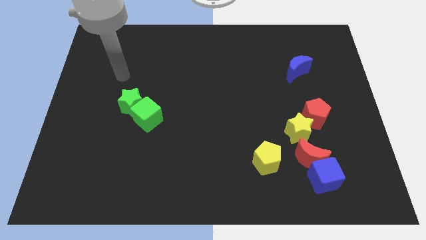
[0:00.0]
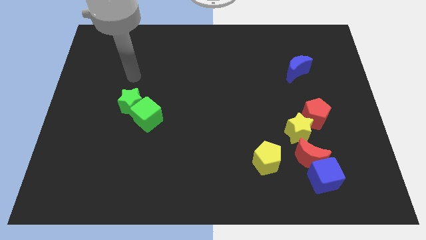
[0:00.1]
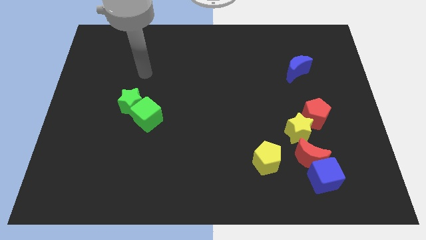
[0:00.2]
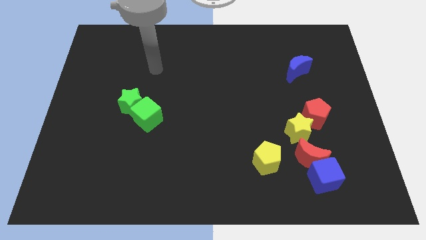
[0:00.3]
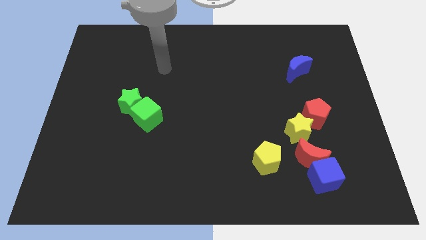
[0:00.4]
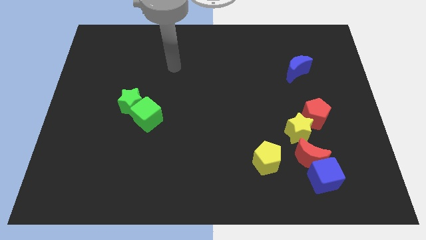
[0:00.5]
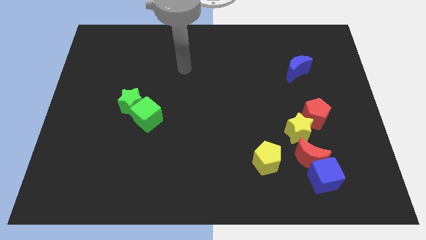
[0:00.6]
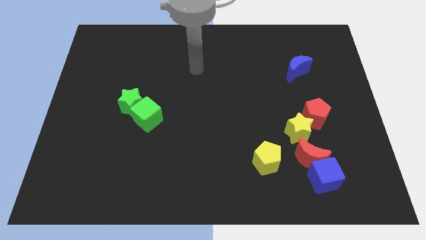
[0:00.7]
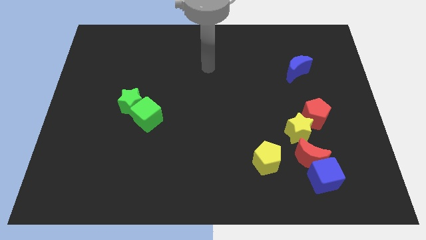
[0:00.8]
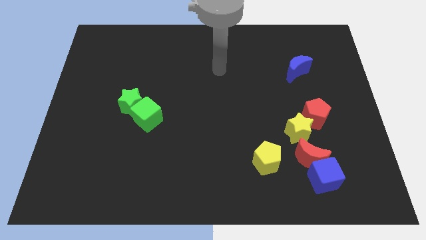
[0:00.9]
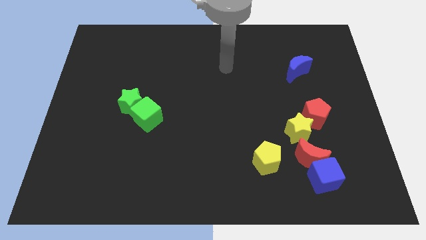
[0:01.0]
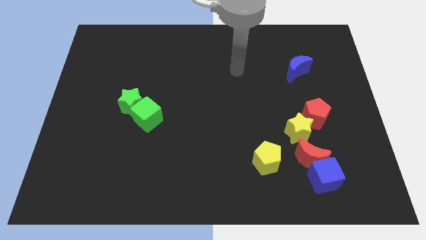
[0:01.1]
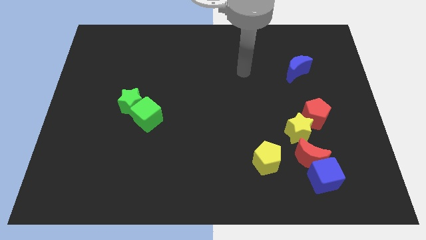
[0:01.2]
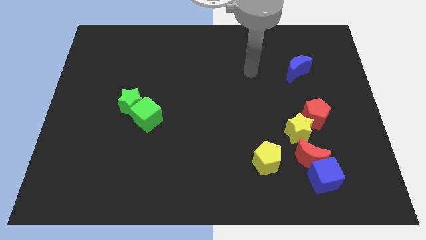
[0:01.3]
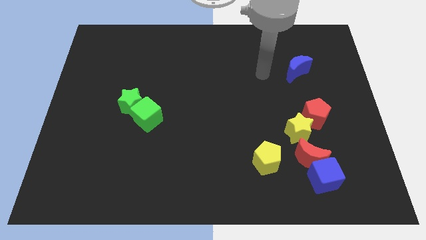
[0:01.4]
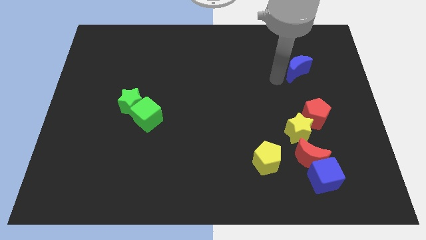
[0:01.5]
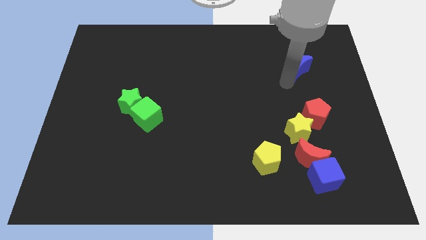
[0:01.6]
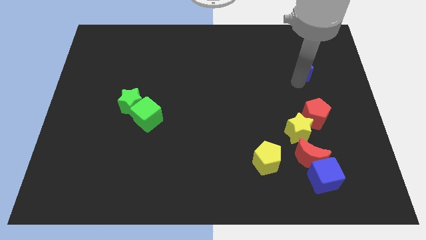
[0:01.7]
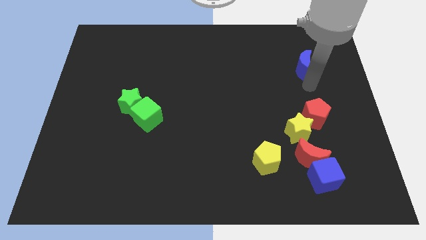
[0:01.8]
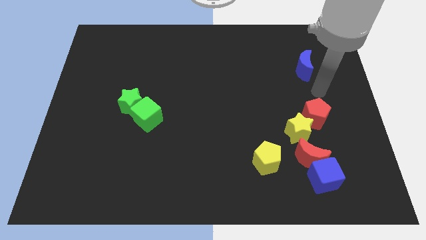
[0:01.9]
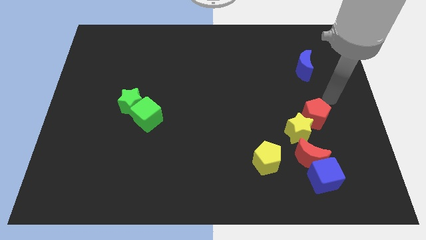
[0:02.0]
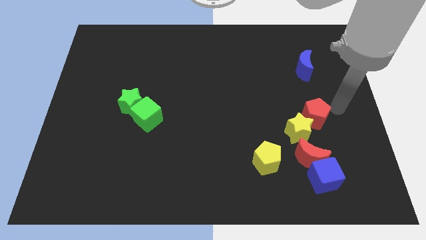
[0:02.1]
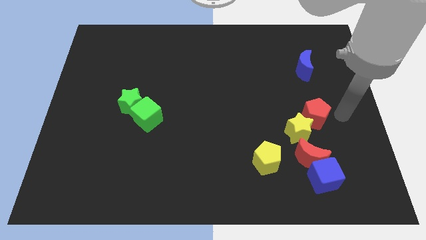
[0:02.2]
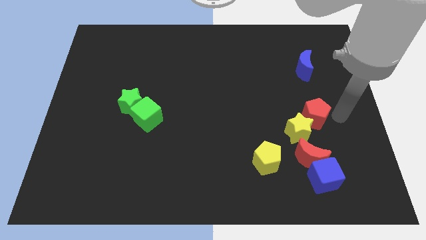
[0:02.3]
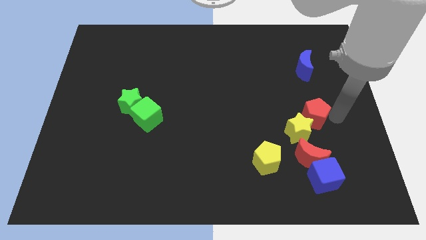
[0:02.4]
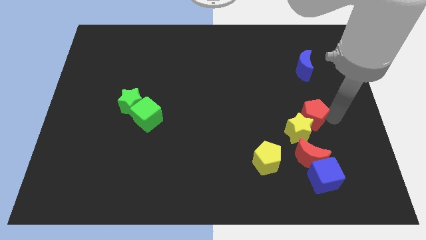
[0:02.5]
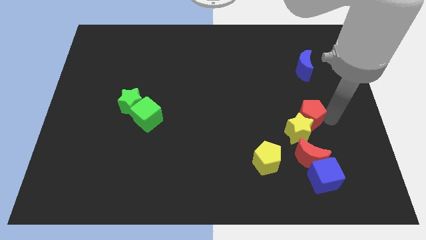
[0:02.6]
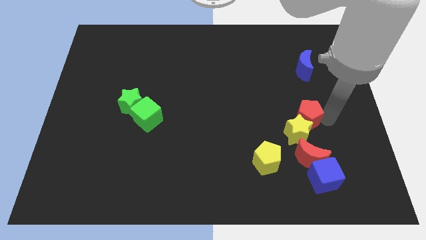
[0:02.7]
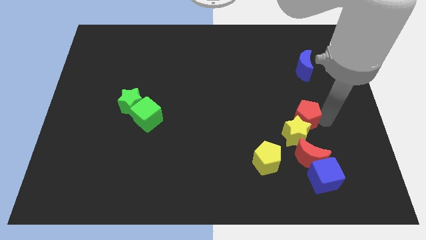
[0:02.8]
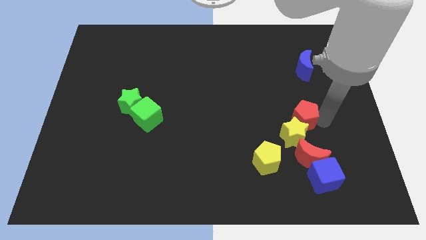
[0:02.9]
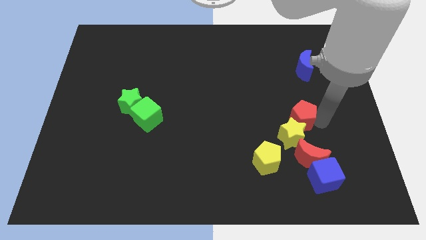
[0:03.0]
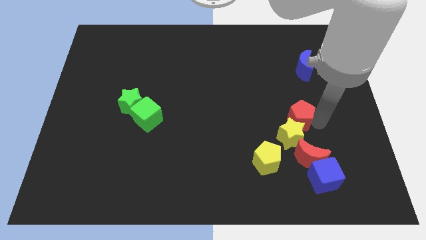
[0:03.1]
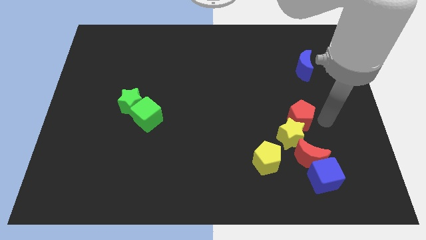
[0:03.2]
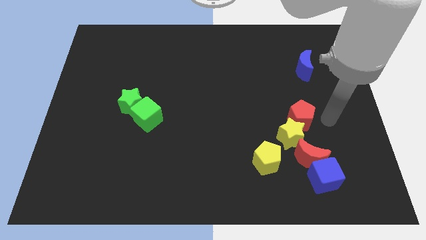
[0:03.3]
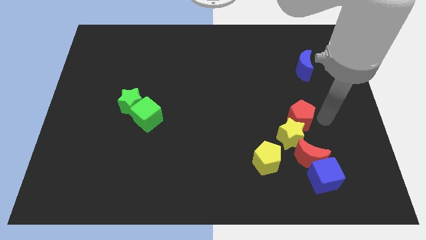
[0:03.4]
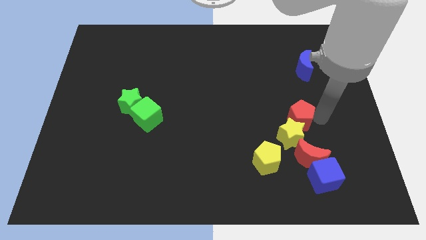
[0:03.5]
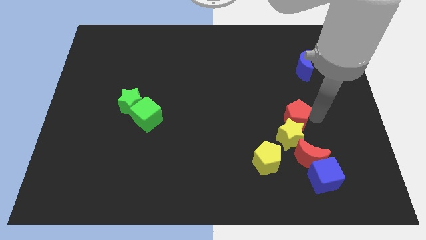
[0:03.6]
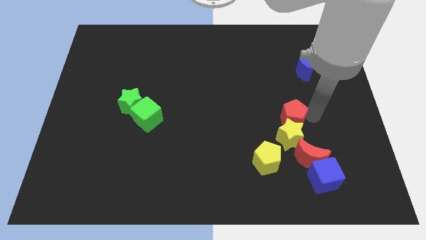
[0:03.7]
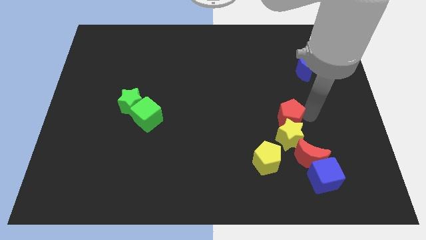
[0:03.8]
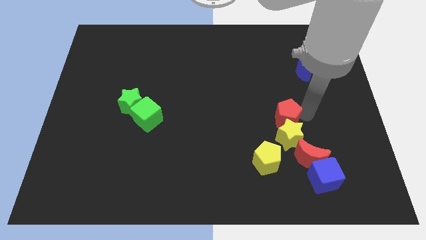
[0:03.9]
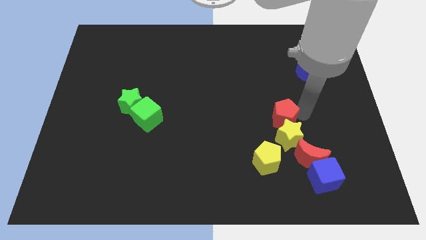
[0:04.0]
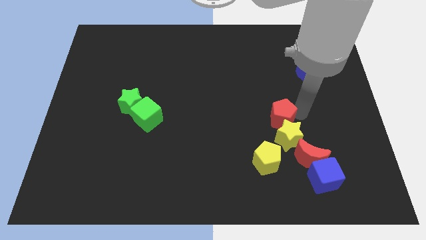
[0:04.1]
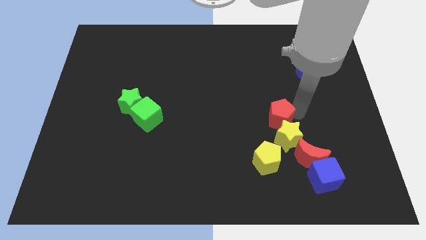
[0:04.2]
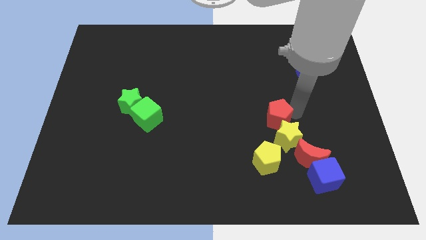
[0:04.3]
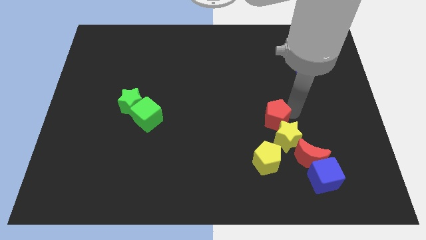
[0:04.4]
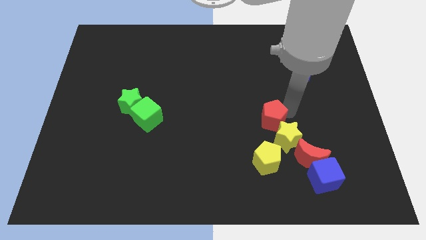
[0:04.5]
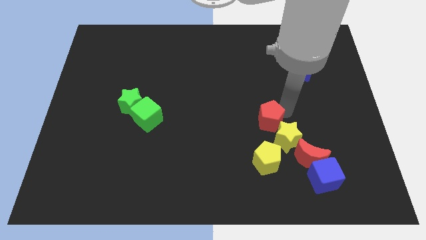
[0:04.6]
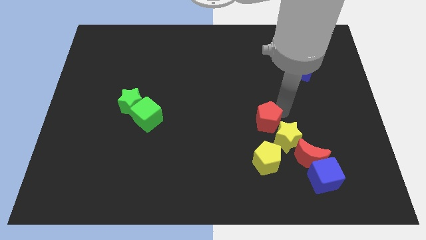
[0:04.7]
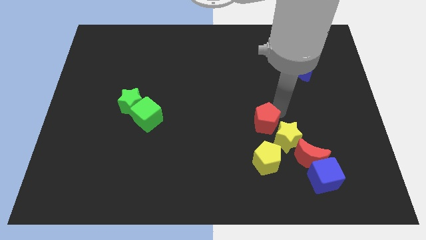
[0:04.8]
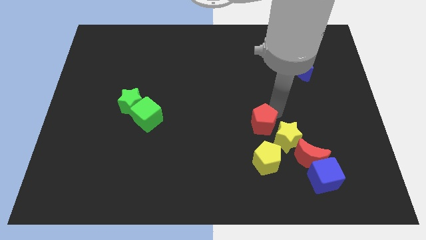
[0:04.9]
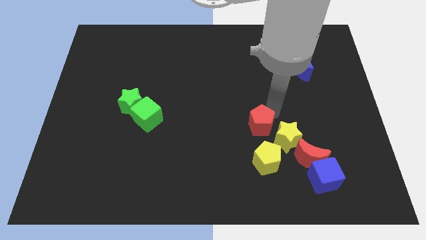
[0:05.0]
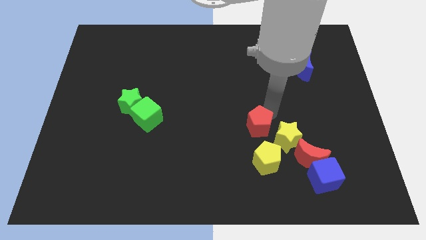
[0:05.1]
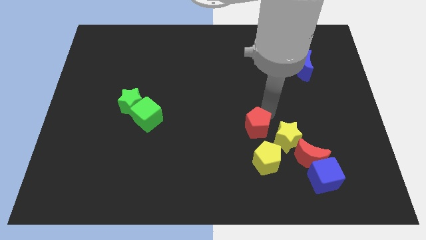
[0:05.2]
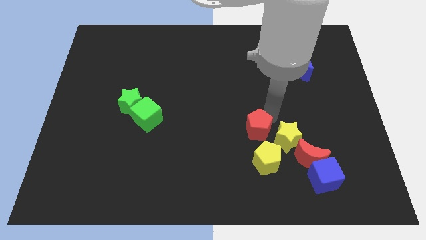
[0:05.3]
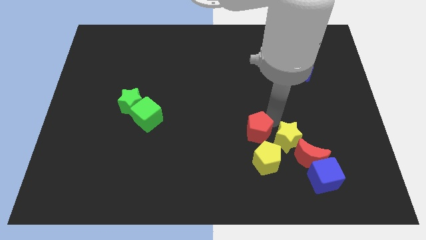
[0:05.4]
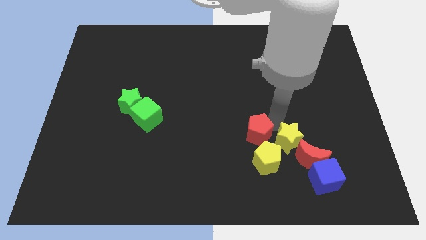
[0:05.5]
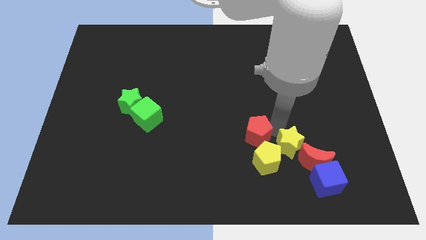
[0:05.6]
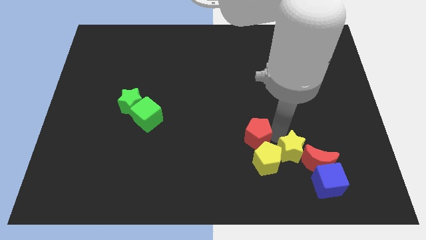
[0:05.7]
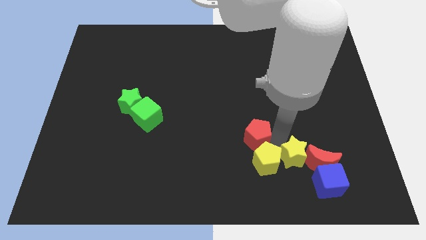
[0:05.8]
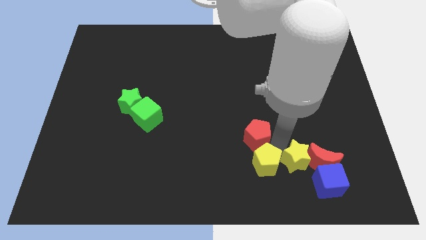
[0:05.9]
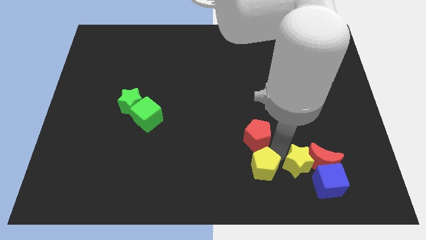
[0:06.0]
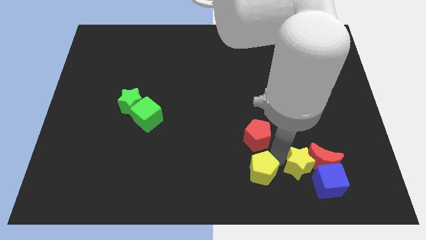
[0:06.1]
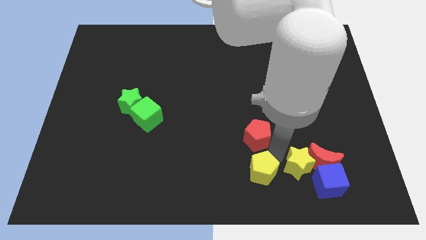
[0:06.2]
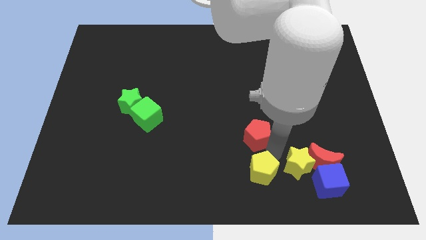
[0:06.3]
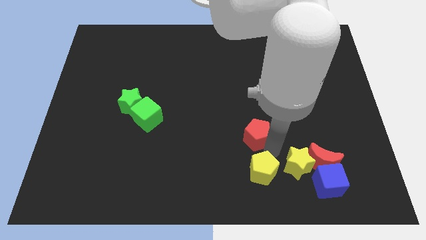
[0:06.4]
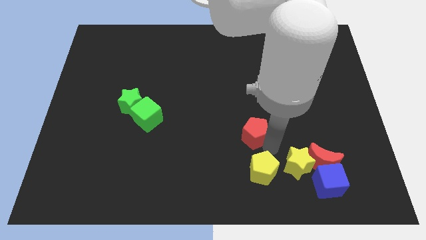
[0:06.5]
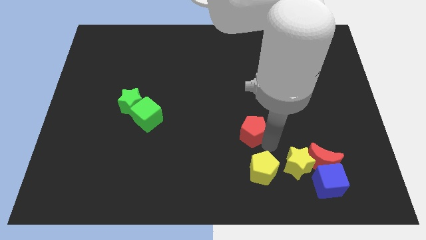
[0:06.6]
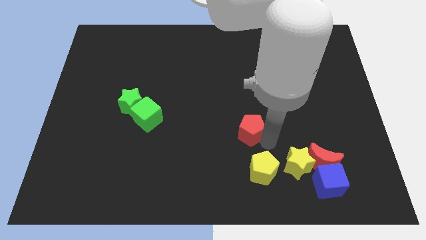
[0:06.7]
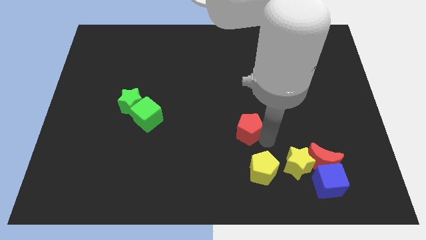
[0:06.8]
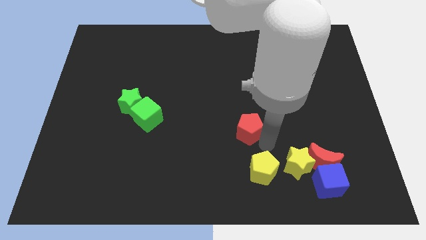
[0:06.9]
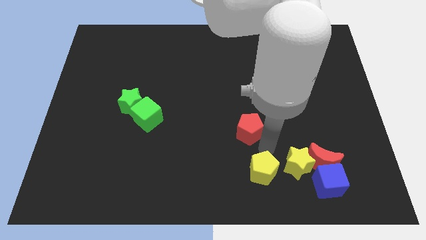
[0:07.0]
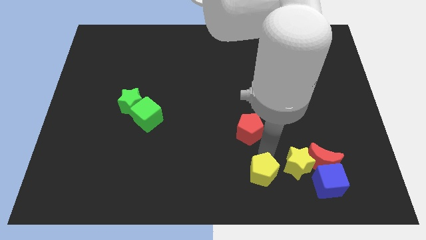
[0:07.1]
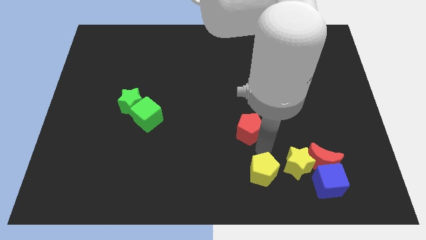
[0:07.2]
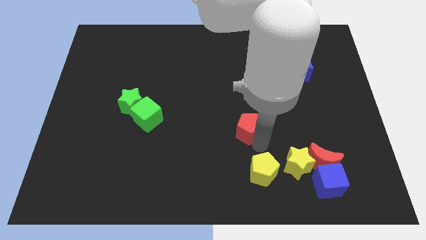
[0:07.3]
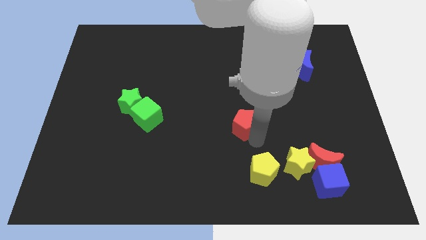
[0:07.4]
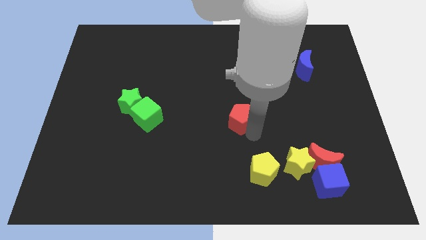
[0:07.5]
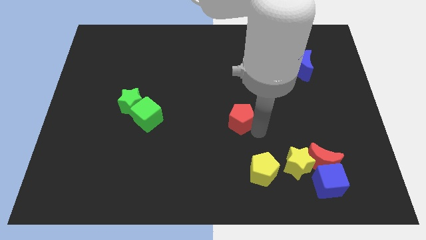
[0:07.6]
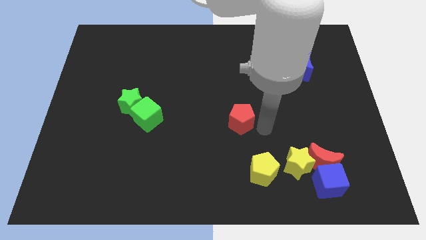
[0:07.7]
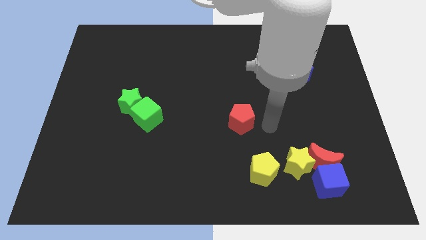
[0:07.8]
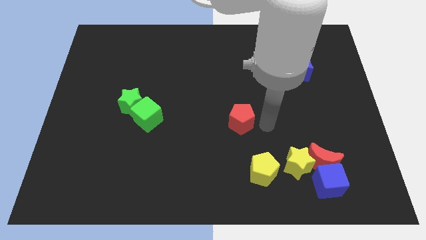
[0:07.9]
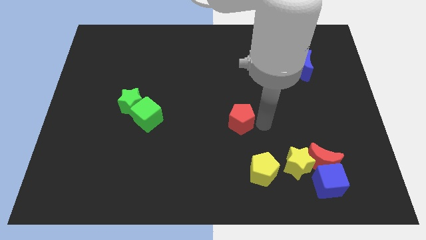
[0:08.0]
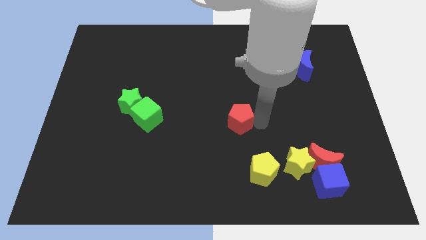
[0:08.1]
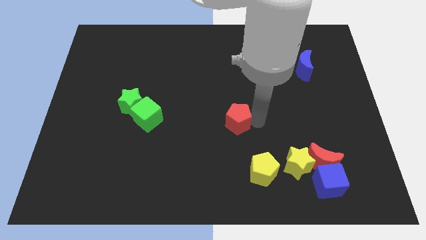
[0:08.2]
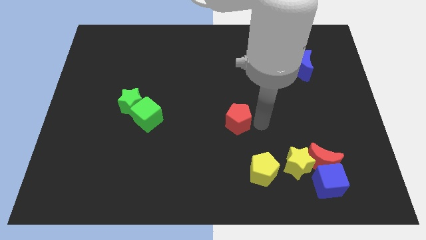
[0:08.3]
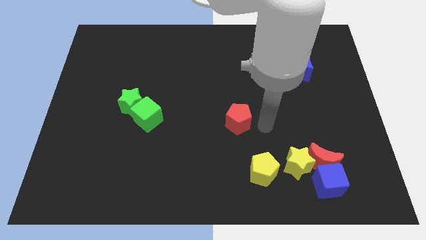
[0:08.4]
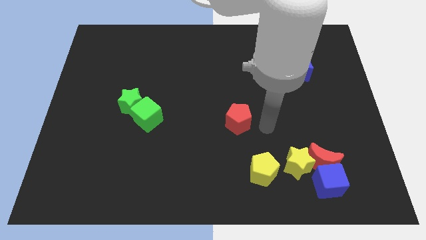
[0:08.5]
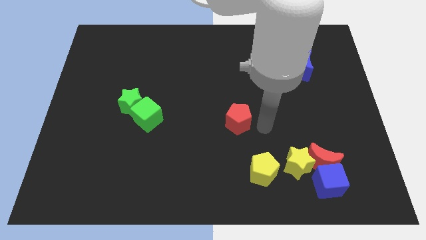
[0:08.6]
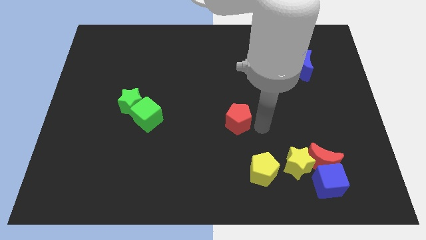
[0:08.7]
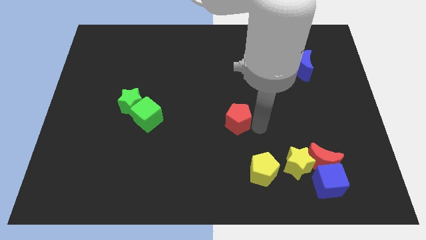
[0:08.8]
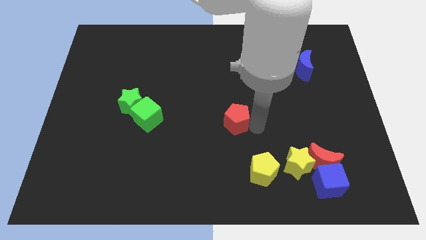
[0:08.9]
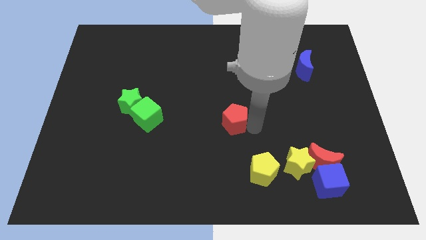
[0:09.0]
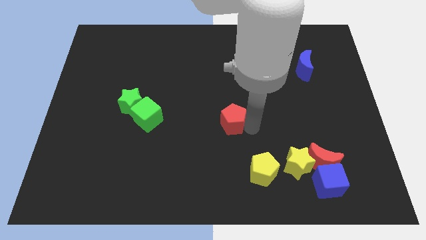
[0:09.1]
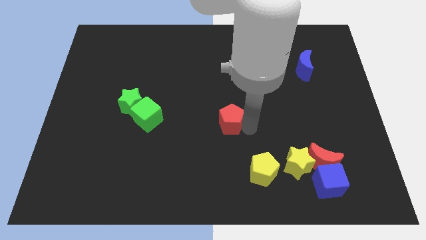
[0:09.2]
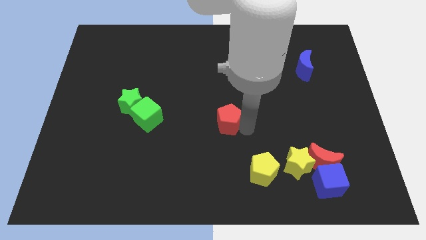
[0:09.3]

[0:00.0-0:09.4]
move the red pentagon left
